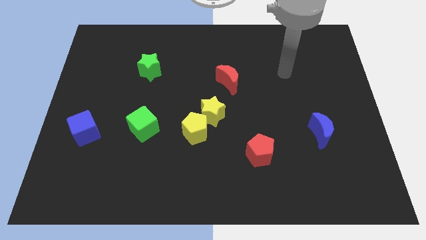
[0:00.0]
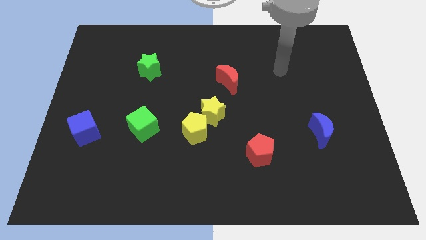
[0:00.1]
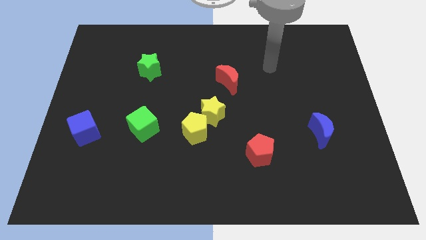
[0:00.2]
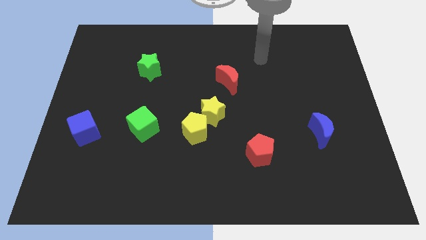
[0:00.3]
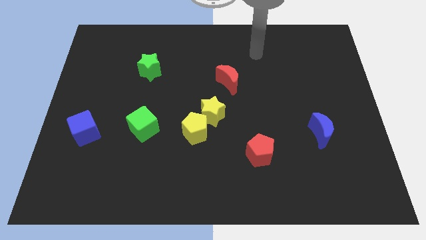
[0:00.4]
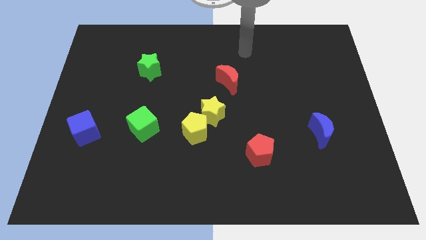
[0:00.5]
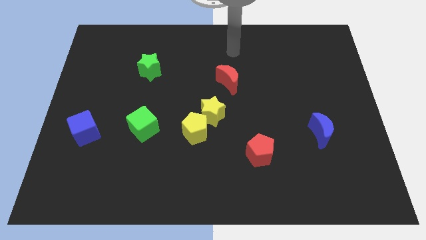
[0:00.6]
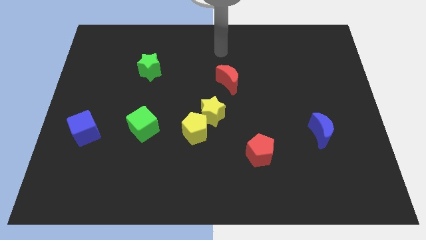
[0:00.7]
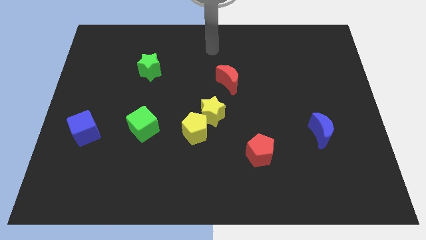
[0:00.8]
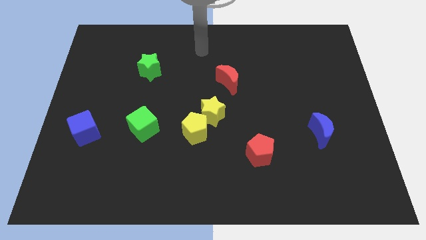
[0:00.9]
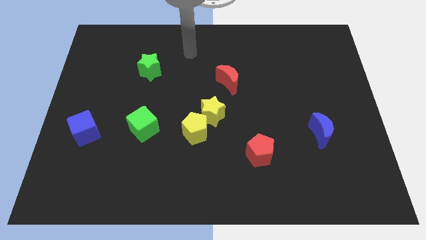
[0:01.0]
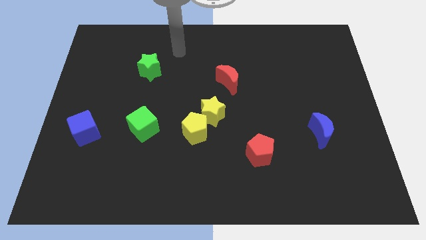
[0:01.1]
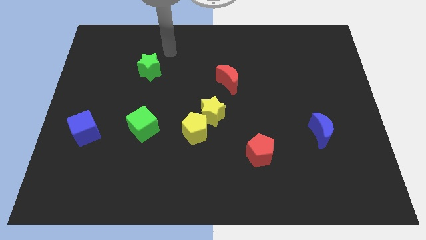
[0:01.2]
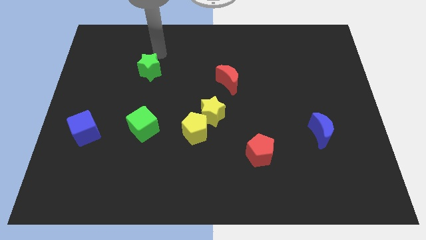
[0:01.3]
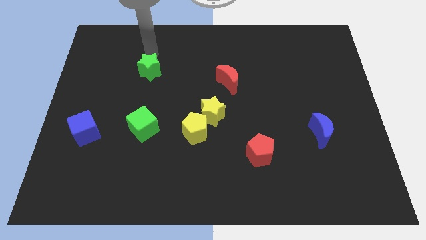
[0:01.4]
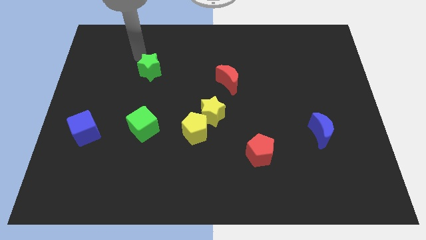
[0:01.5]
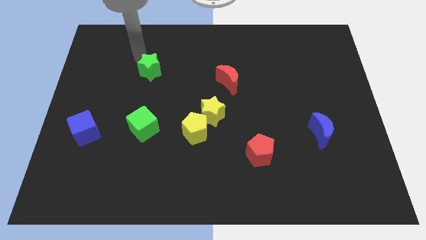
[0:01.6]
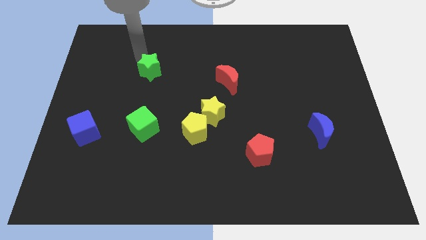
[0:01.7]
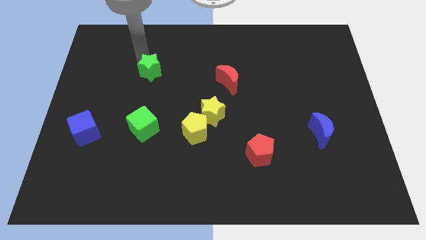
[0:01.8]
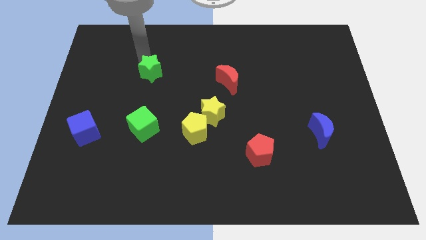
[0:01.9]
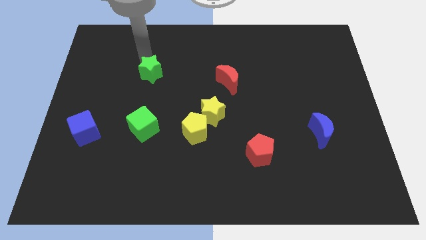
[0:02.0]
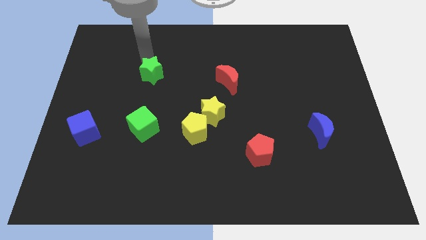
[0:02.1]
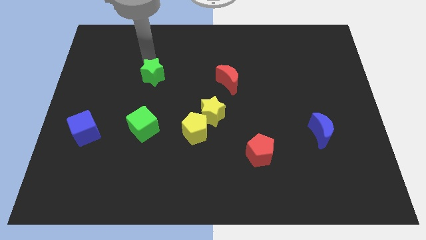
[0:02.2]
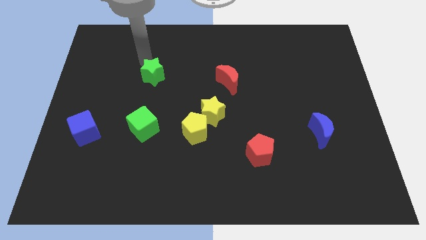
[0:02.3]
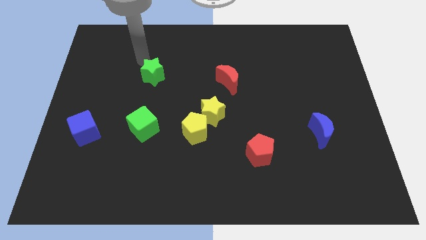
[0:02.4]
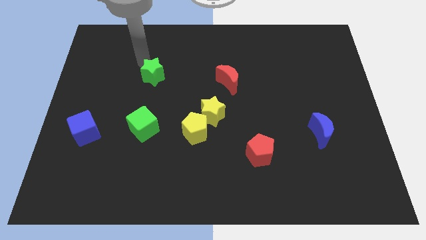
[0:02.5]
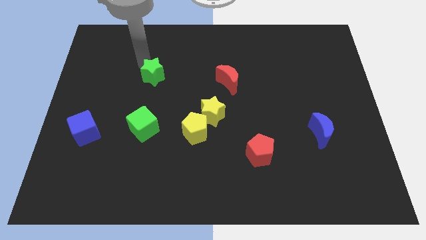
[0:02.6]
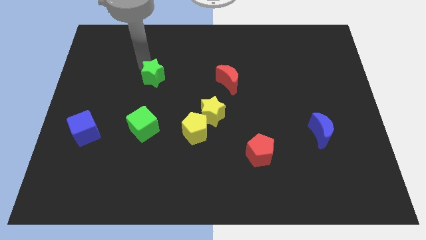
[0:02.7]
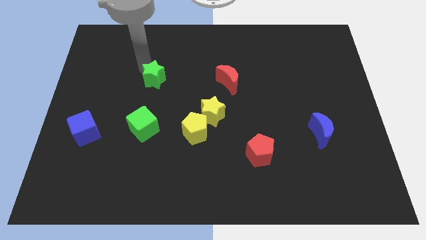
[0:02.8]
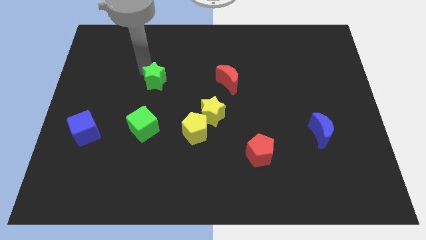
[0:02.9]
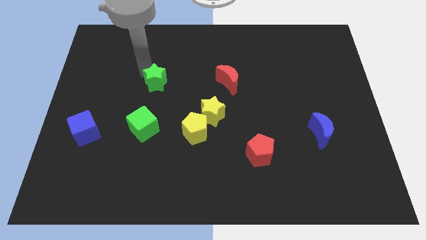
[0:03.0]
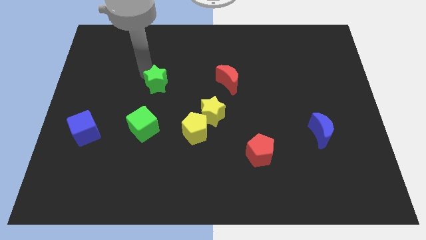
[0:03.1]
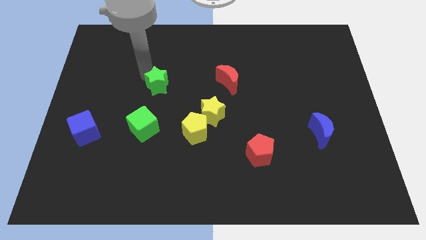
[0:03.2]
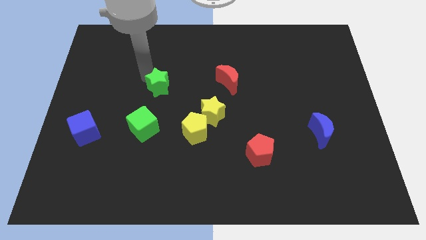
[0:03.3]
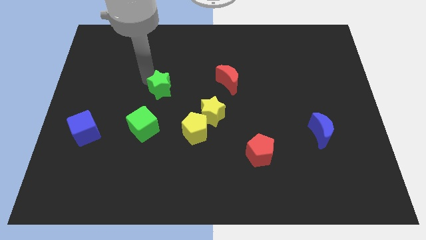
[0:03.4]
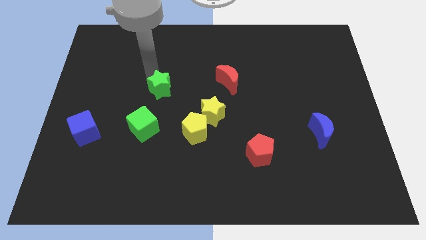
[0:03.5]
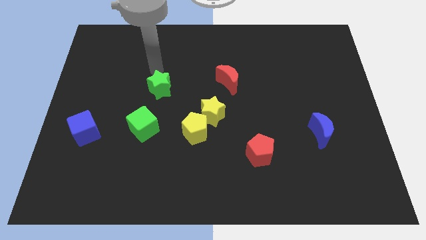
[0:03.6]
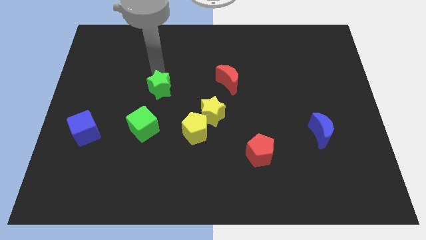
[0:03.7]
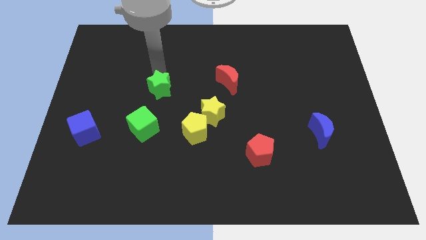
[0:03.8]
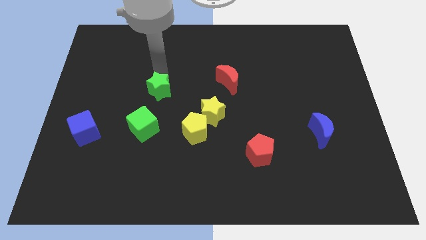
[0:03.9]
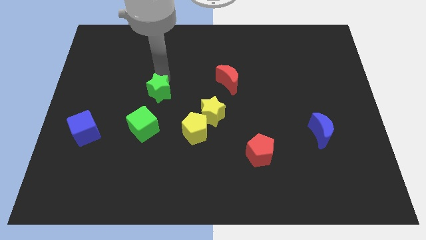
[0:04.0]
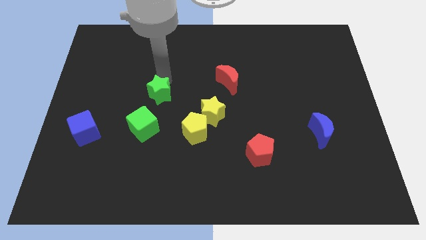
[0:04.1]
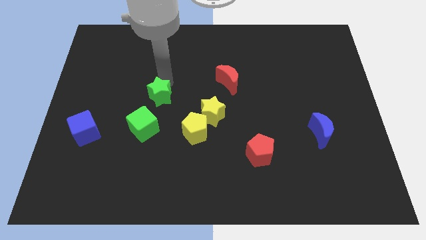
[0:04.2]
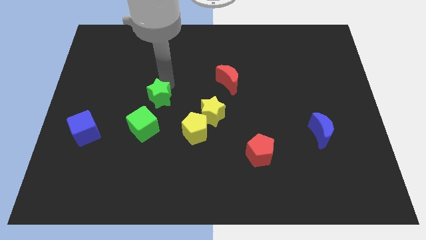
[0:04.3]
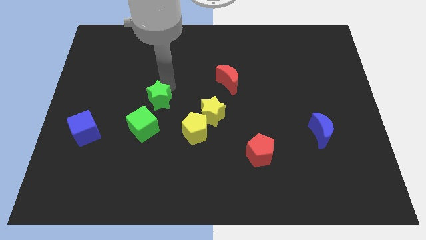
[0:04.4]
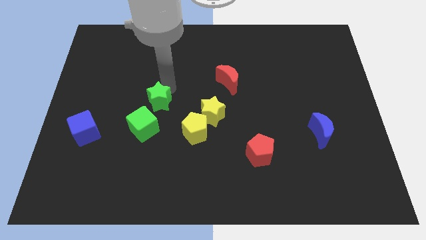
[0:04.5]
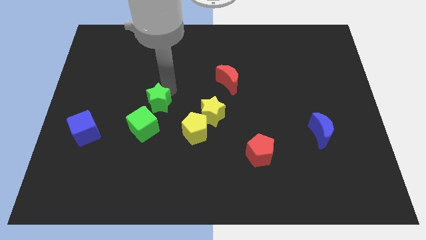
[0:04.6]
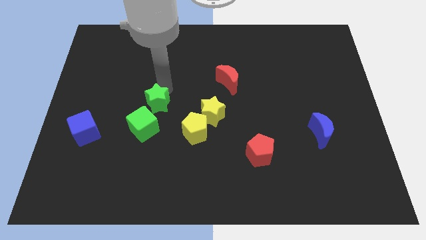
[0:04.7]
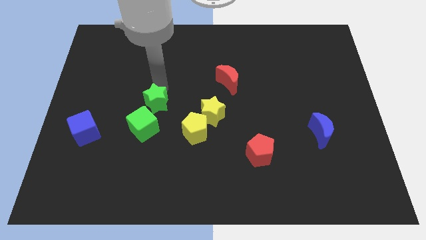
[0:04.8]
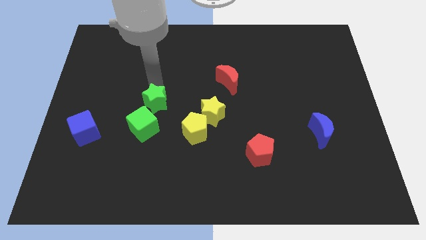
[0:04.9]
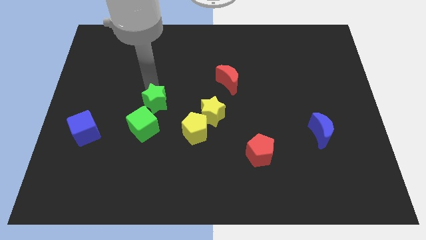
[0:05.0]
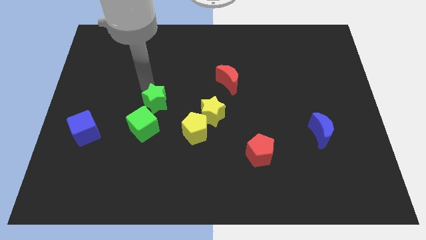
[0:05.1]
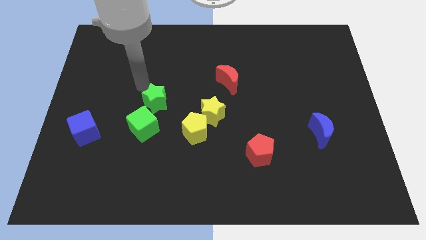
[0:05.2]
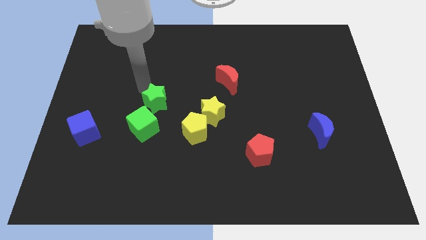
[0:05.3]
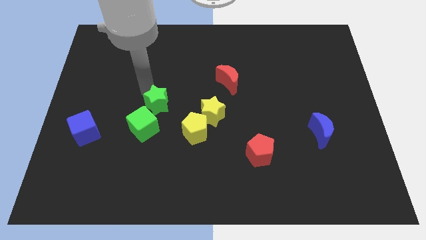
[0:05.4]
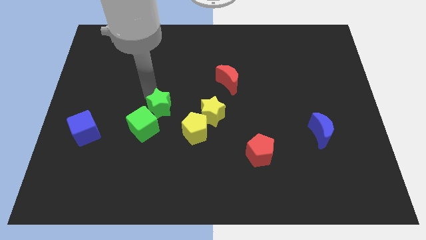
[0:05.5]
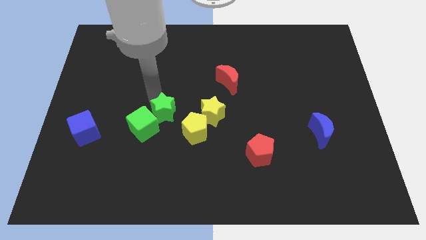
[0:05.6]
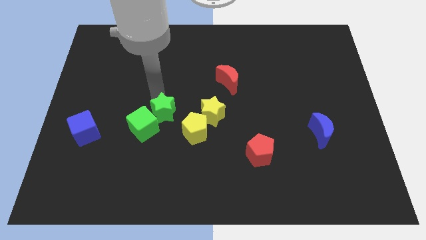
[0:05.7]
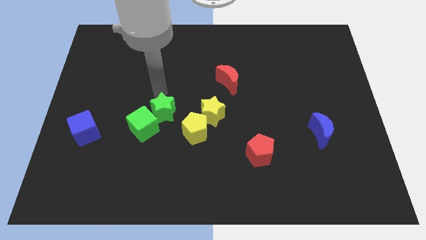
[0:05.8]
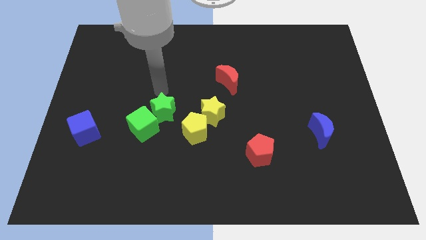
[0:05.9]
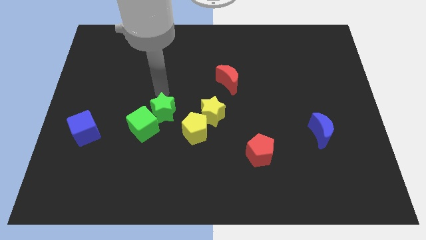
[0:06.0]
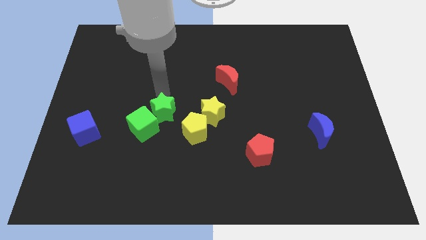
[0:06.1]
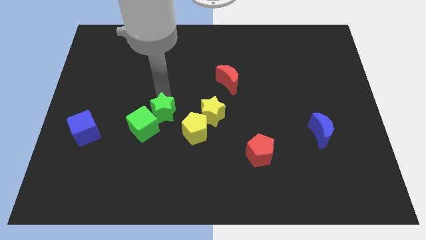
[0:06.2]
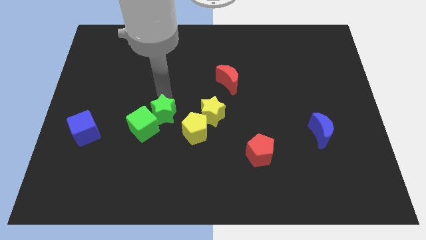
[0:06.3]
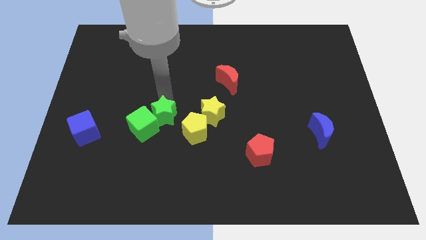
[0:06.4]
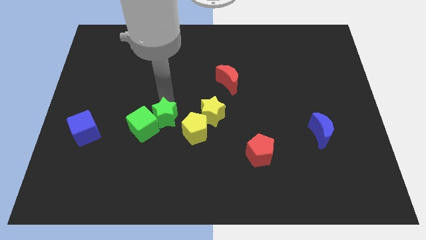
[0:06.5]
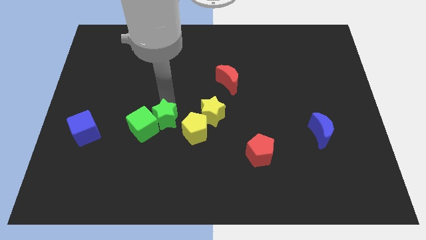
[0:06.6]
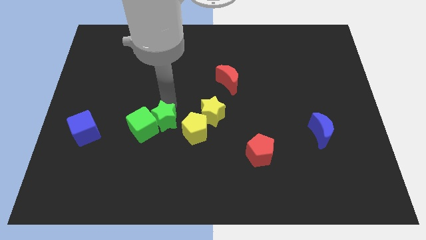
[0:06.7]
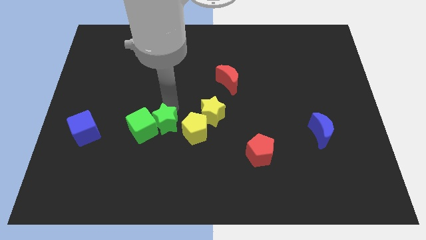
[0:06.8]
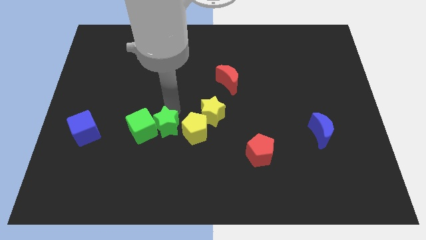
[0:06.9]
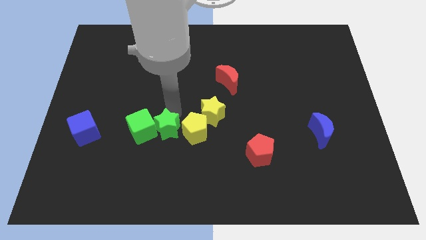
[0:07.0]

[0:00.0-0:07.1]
push the green star to the bottom left of the yellow pentagon

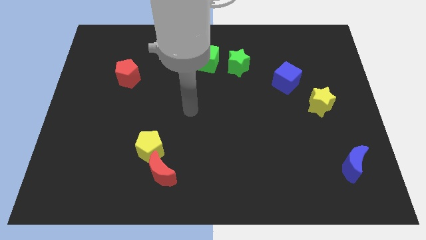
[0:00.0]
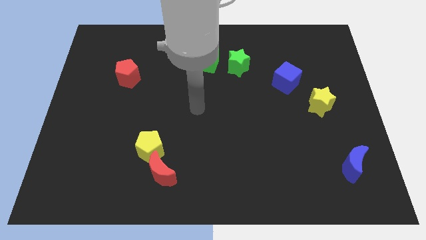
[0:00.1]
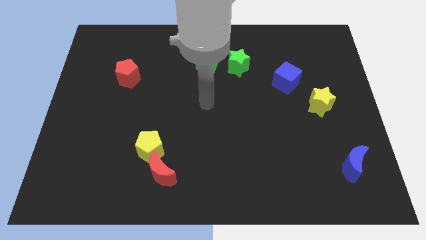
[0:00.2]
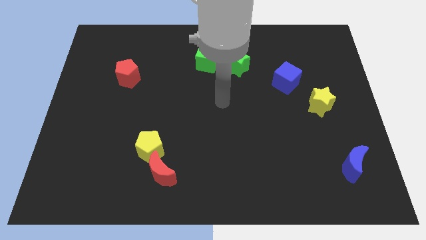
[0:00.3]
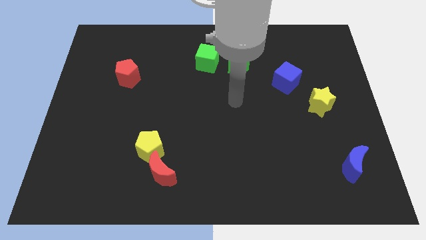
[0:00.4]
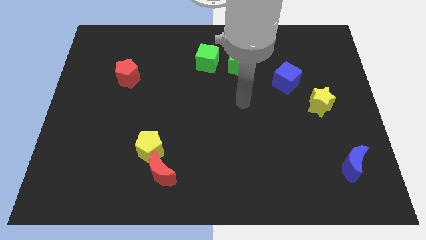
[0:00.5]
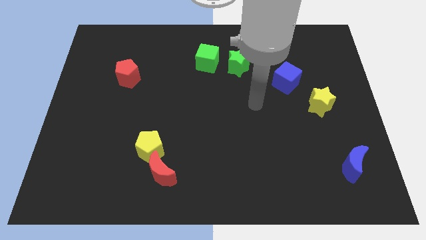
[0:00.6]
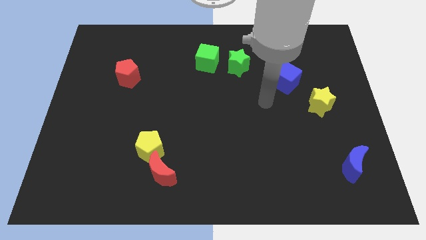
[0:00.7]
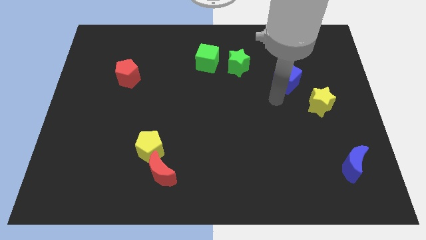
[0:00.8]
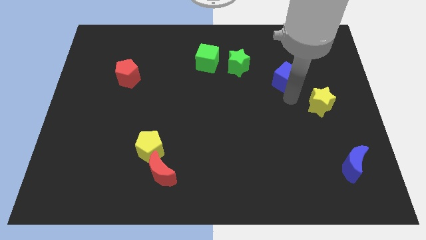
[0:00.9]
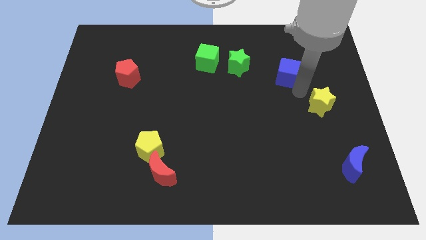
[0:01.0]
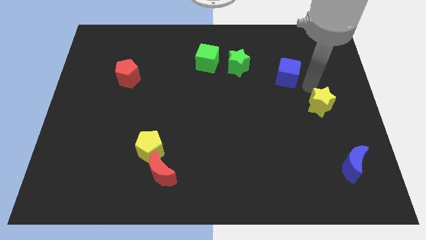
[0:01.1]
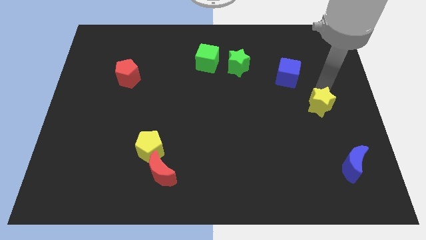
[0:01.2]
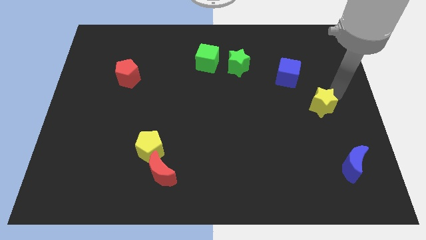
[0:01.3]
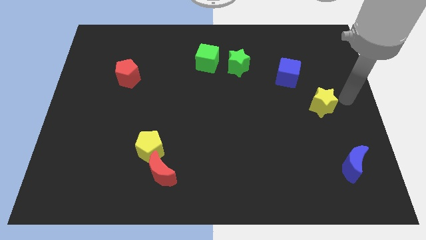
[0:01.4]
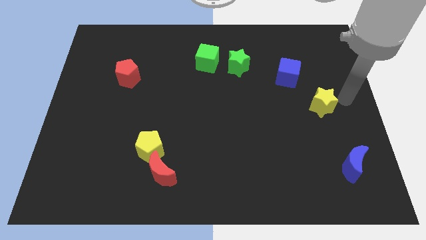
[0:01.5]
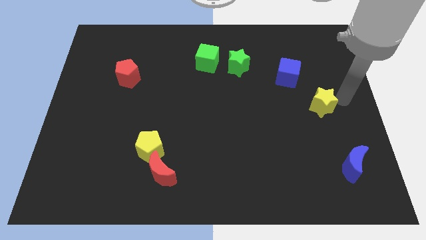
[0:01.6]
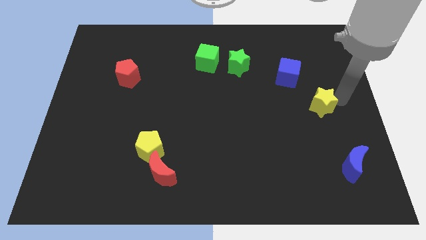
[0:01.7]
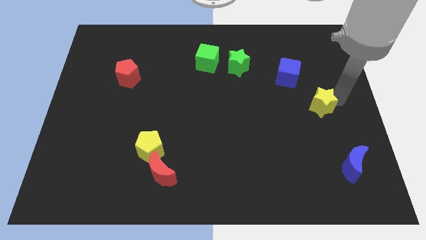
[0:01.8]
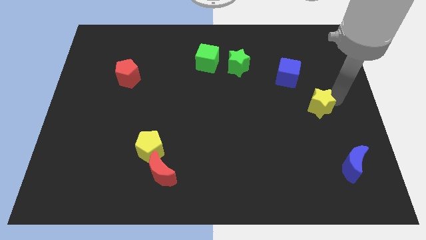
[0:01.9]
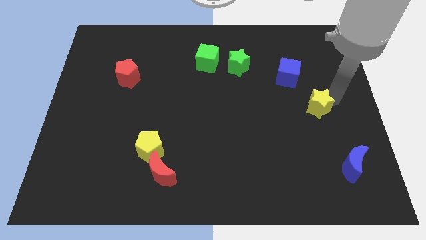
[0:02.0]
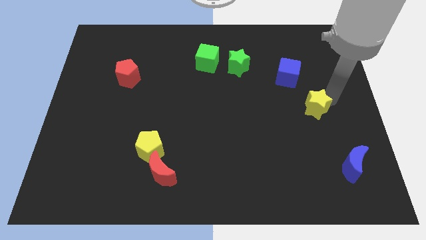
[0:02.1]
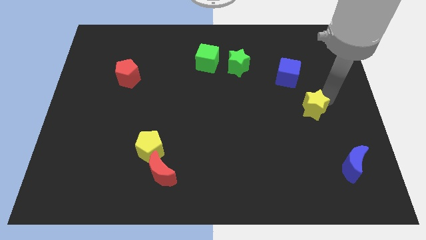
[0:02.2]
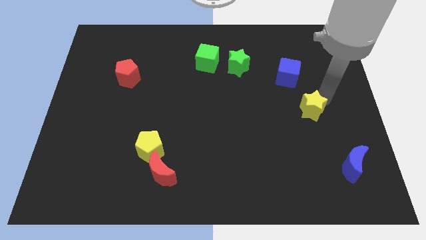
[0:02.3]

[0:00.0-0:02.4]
move the yellow star to the bottom of the blue cube
